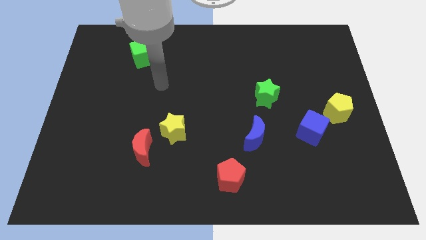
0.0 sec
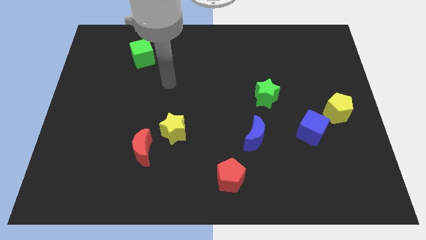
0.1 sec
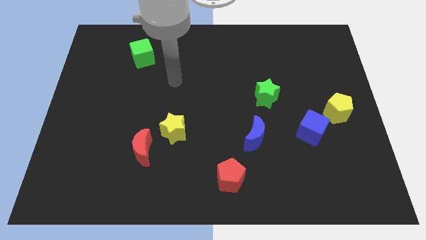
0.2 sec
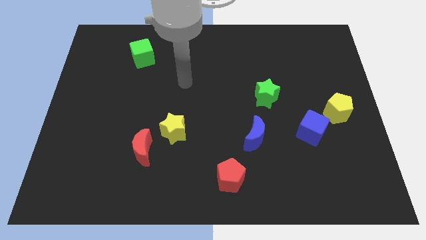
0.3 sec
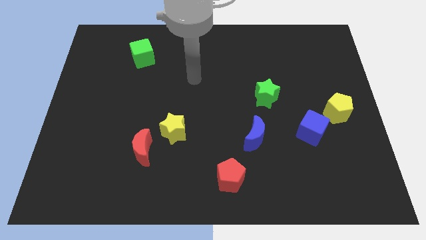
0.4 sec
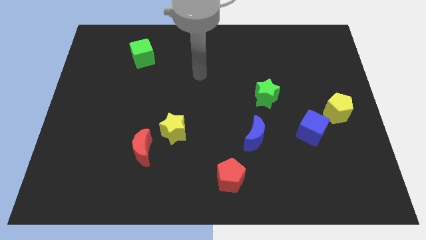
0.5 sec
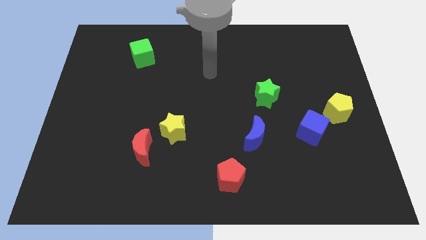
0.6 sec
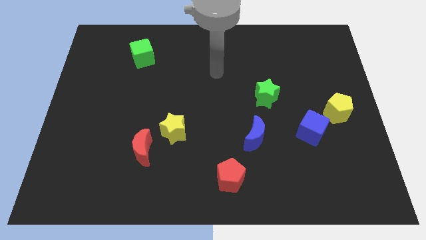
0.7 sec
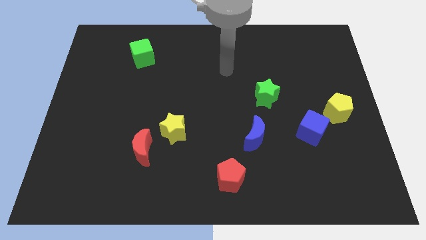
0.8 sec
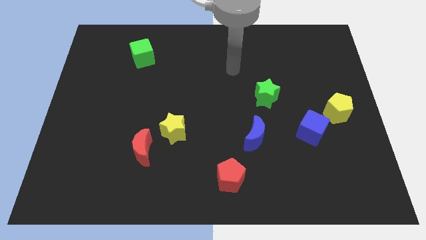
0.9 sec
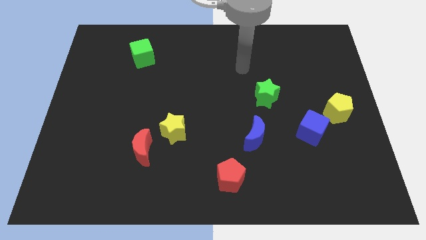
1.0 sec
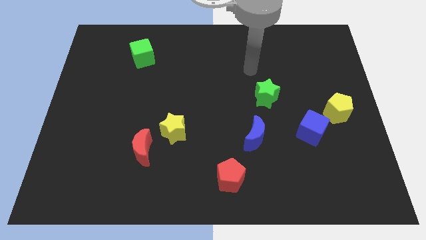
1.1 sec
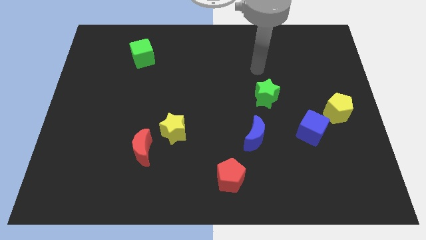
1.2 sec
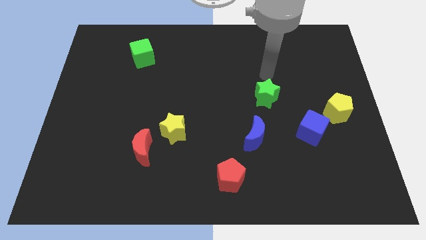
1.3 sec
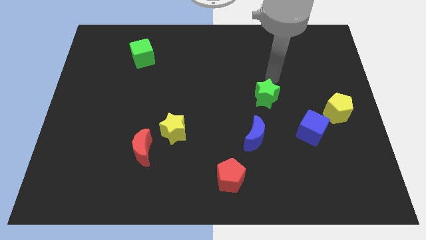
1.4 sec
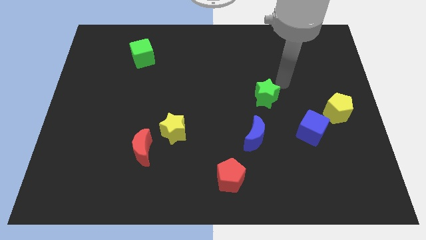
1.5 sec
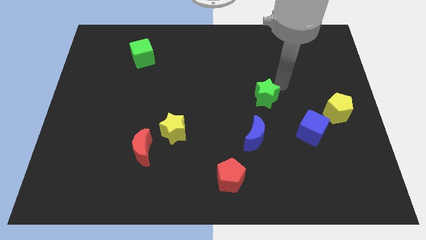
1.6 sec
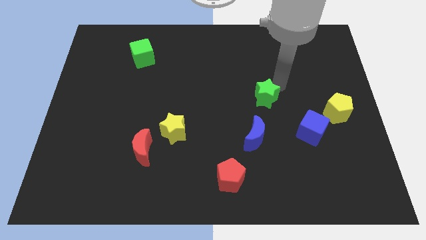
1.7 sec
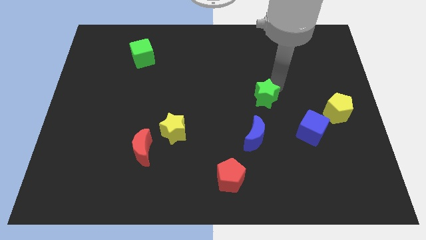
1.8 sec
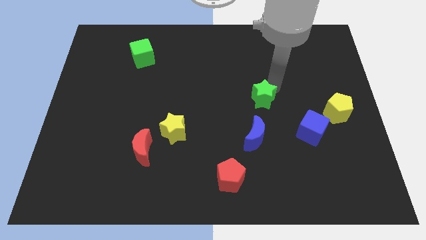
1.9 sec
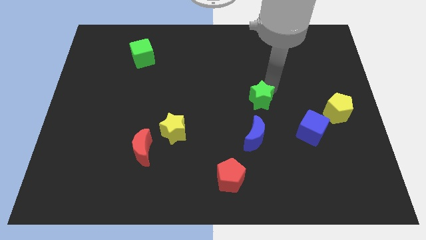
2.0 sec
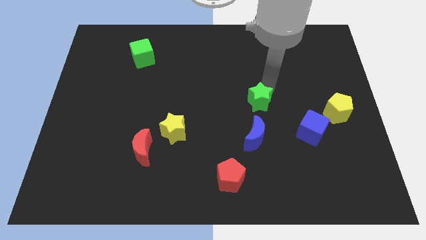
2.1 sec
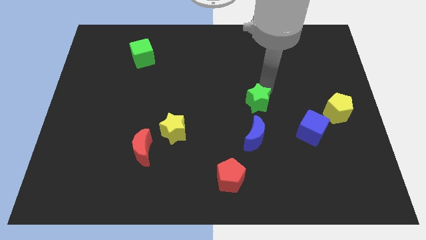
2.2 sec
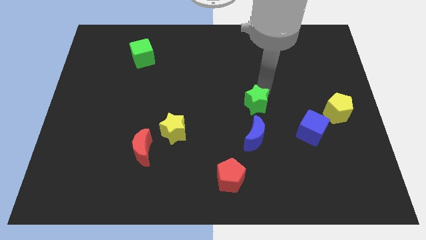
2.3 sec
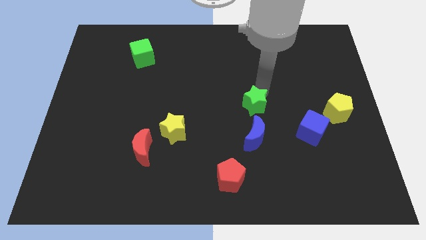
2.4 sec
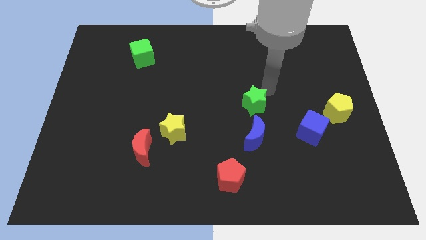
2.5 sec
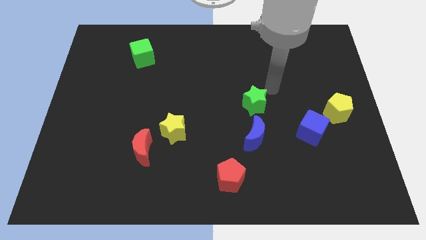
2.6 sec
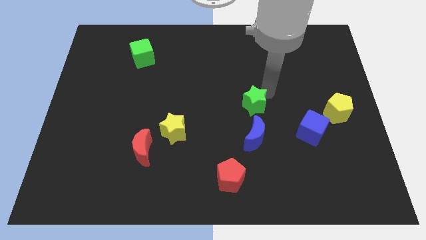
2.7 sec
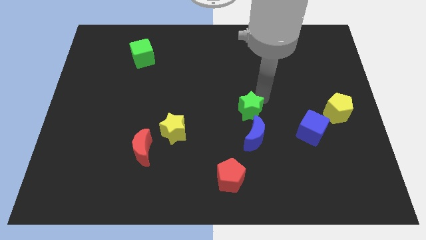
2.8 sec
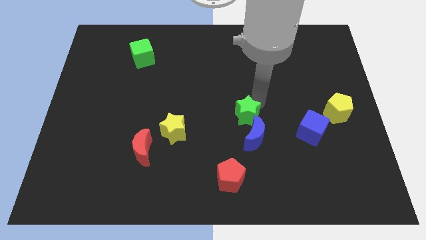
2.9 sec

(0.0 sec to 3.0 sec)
slide the green star a bit diagonally down and left

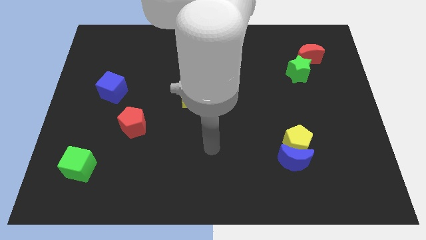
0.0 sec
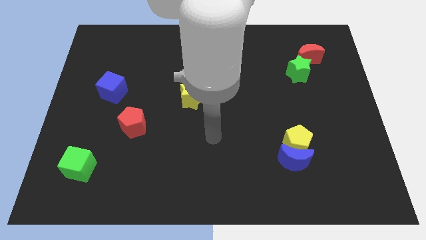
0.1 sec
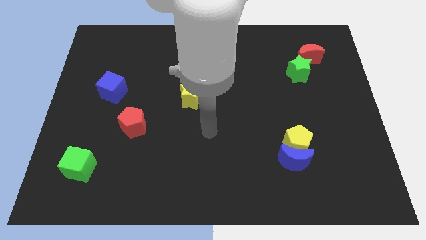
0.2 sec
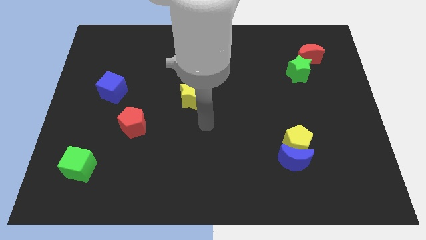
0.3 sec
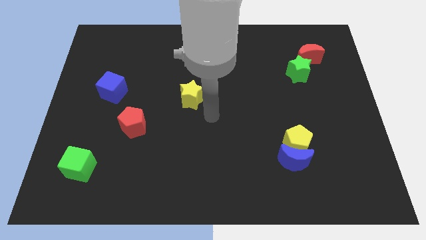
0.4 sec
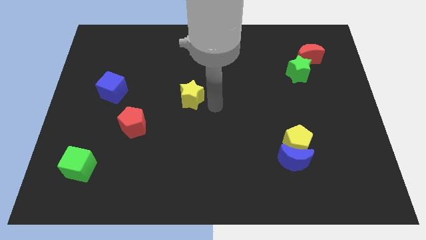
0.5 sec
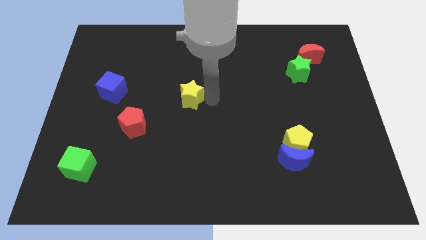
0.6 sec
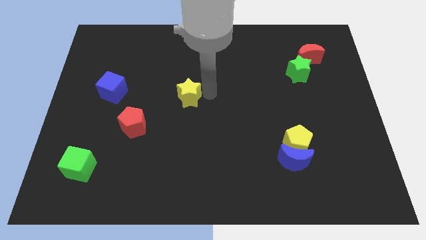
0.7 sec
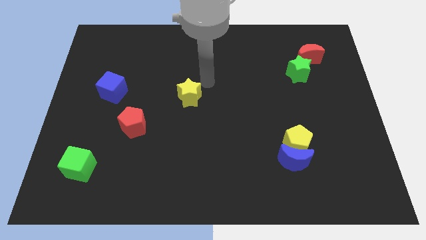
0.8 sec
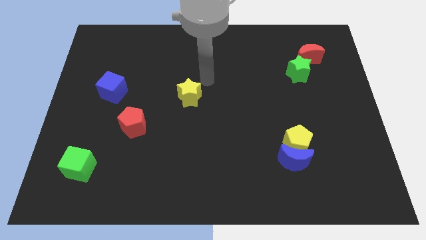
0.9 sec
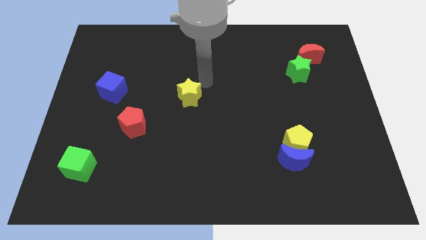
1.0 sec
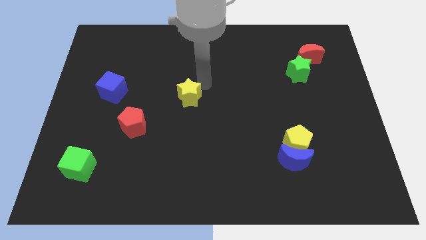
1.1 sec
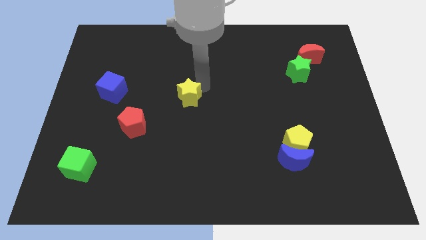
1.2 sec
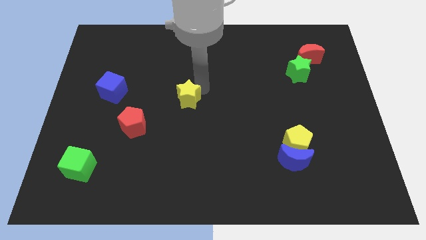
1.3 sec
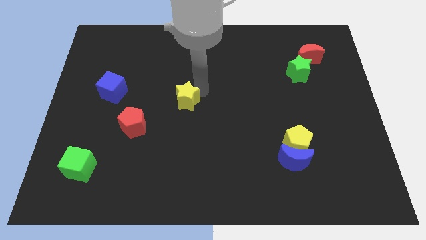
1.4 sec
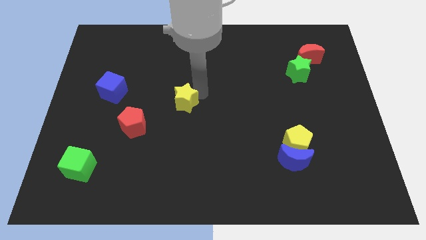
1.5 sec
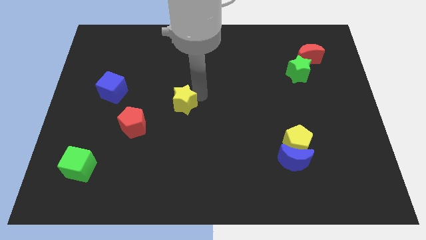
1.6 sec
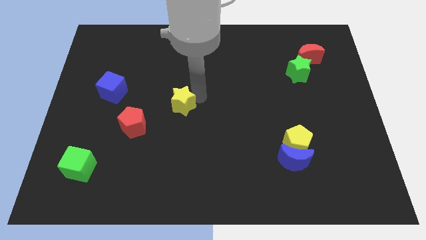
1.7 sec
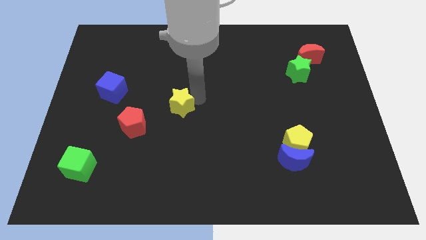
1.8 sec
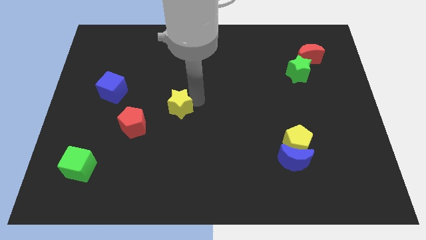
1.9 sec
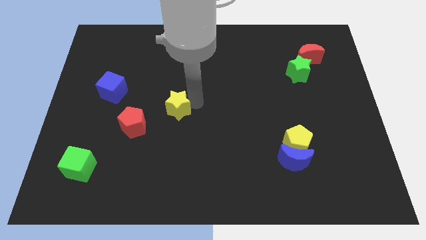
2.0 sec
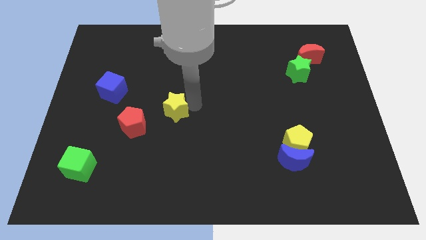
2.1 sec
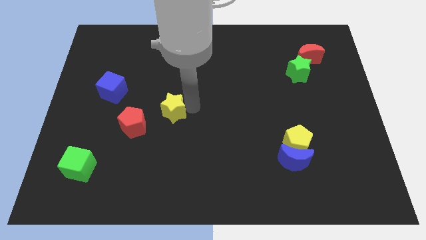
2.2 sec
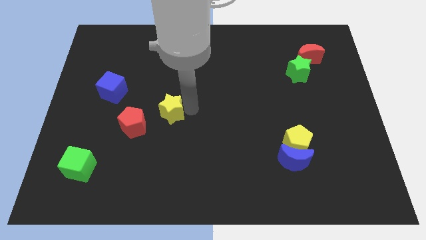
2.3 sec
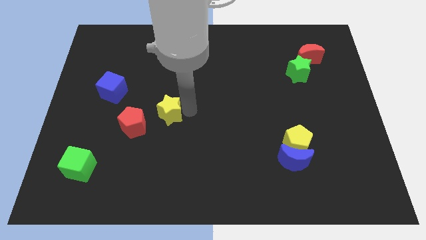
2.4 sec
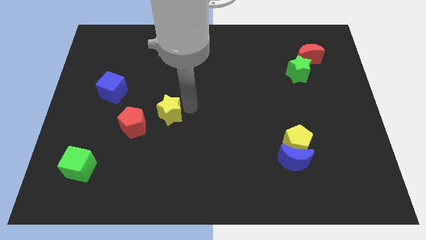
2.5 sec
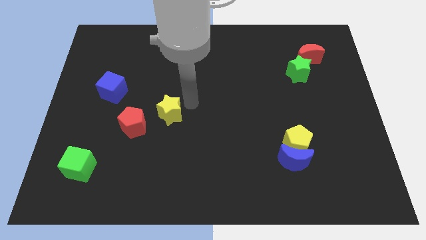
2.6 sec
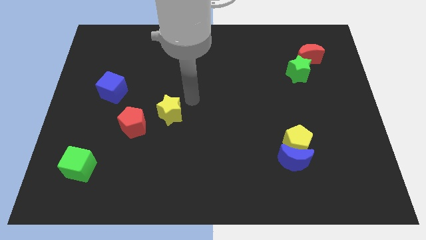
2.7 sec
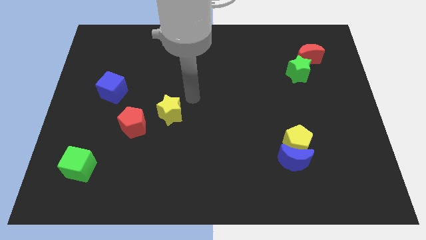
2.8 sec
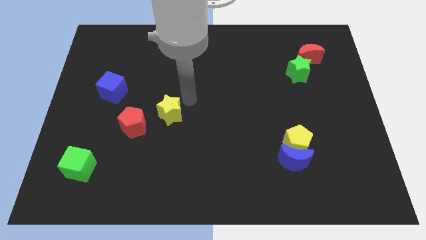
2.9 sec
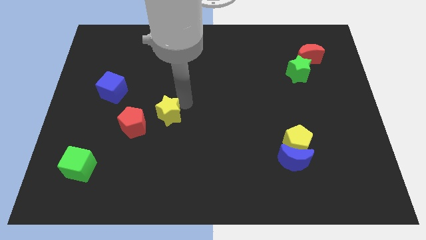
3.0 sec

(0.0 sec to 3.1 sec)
slide the yellow star diagonally downwards and to the left a little bit

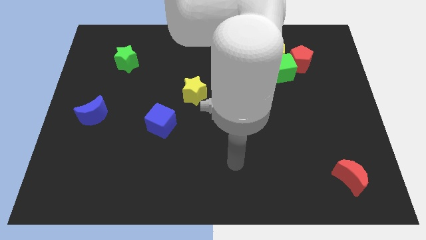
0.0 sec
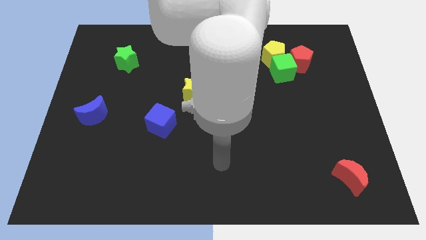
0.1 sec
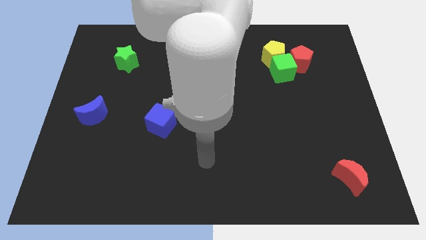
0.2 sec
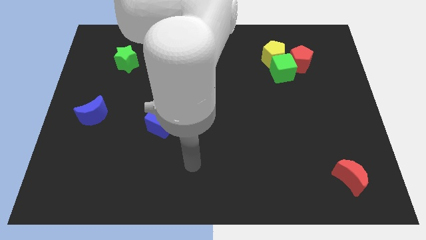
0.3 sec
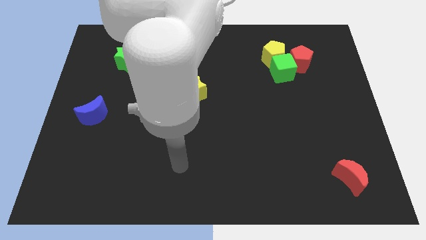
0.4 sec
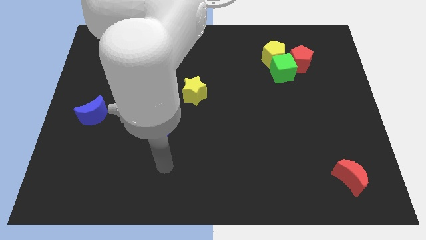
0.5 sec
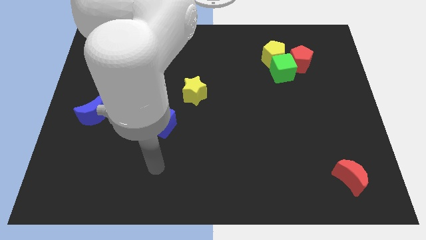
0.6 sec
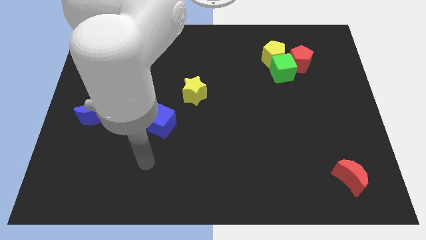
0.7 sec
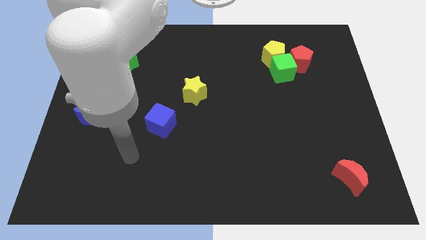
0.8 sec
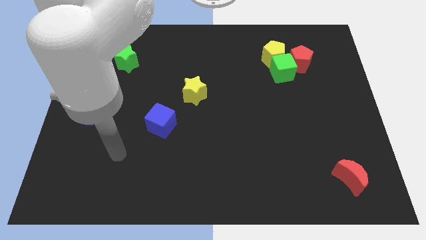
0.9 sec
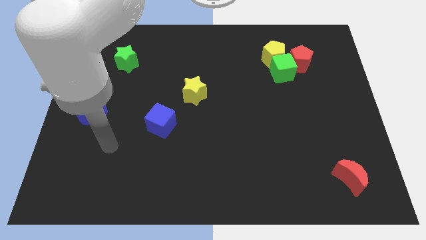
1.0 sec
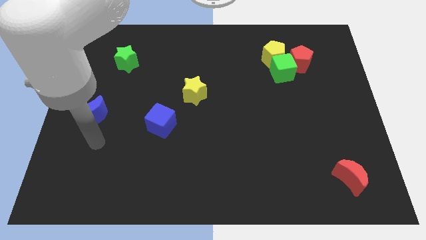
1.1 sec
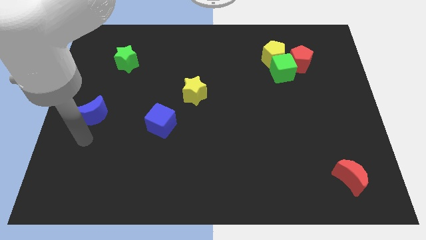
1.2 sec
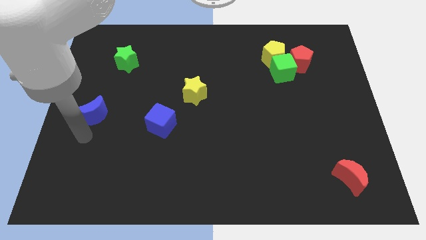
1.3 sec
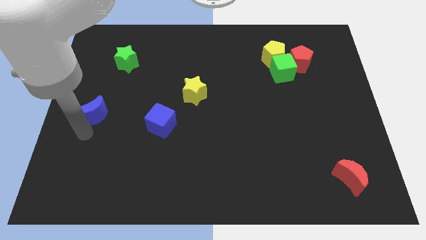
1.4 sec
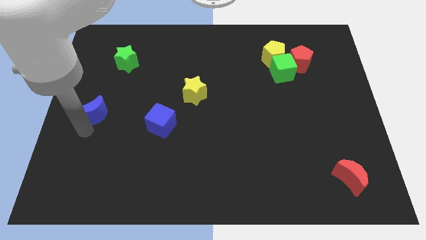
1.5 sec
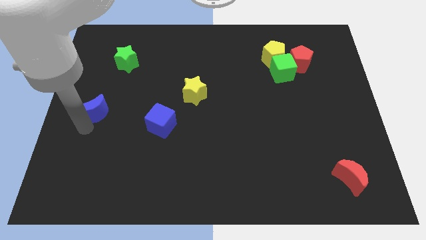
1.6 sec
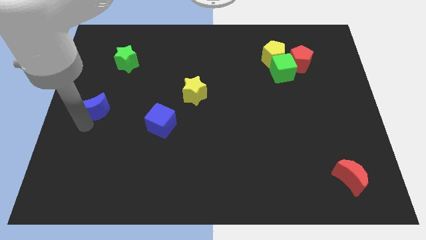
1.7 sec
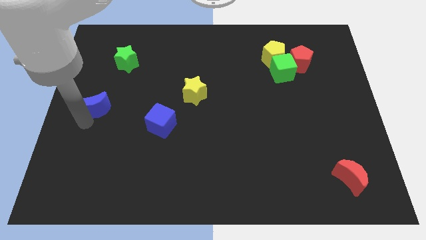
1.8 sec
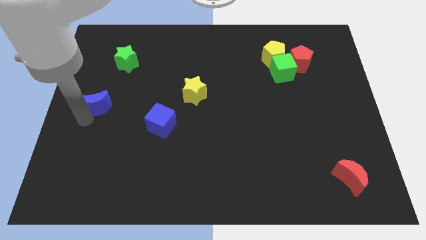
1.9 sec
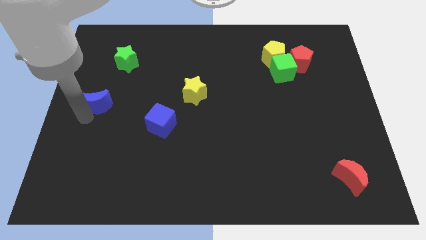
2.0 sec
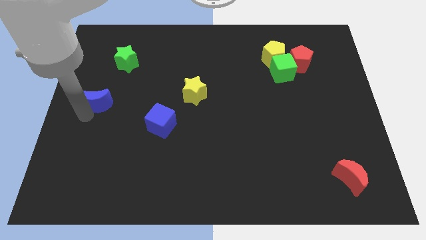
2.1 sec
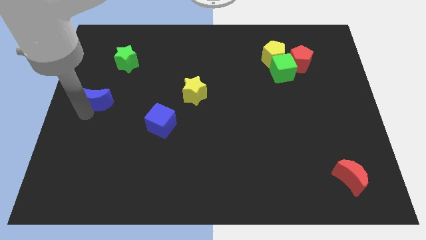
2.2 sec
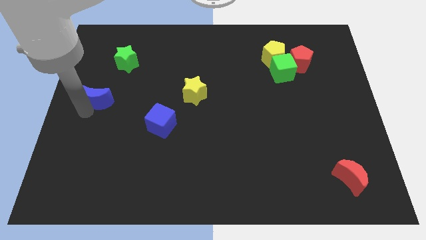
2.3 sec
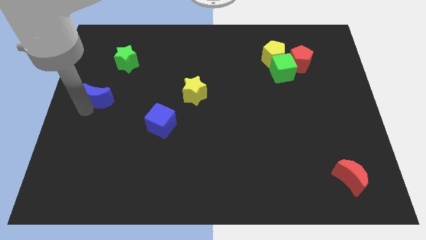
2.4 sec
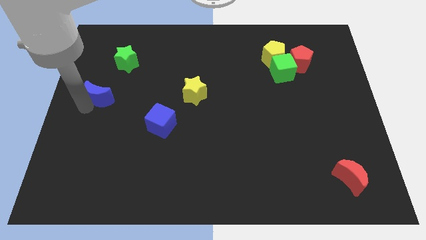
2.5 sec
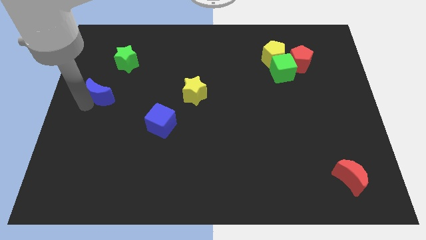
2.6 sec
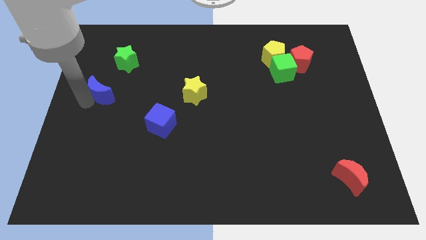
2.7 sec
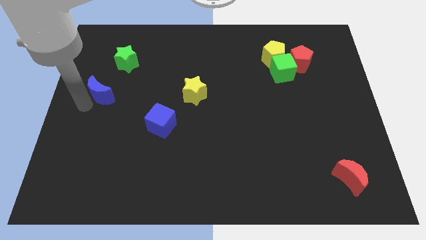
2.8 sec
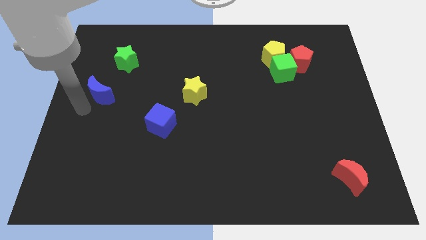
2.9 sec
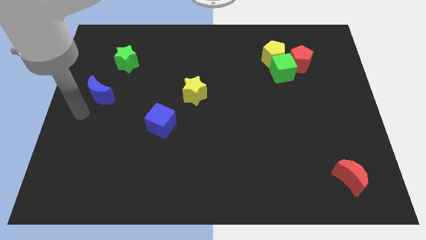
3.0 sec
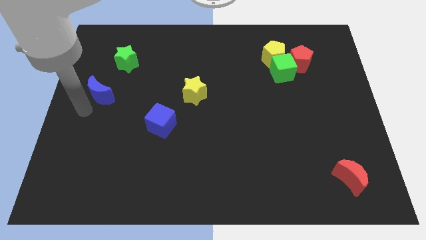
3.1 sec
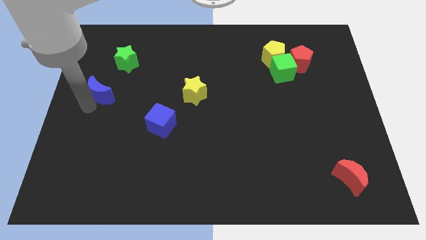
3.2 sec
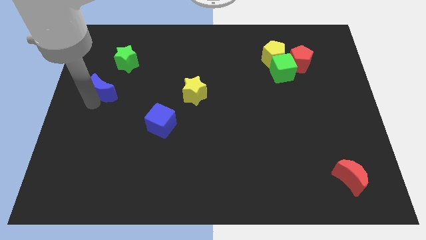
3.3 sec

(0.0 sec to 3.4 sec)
move the blue moon upwards a bit
